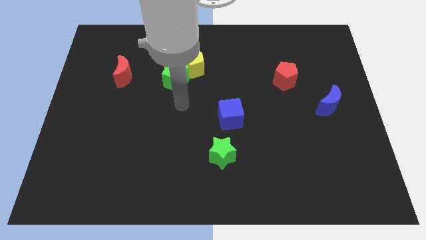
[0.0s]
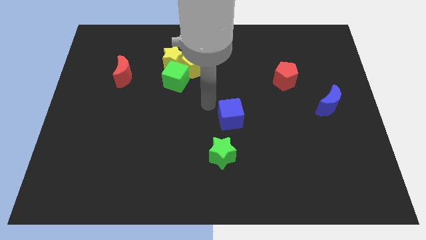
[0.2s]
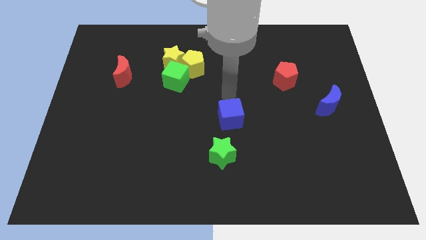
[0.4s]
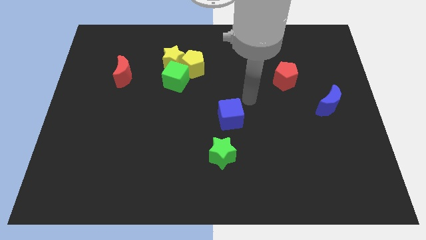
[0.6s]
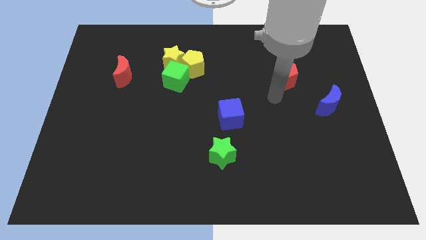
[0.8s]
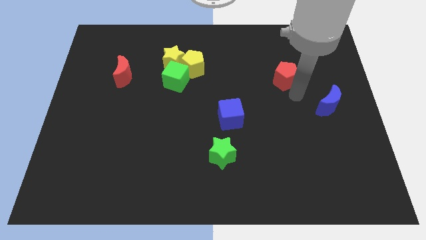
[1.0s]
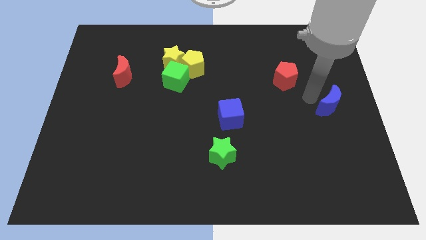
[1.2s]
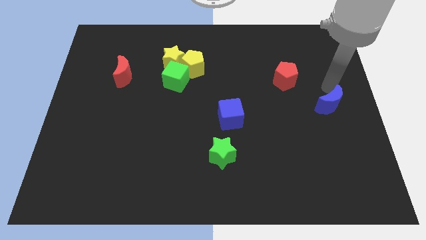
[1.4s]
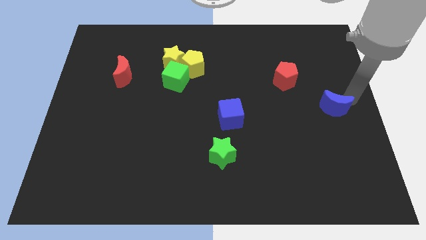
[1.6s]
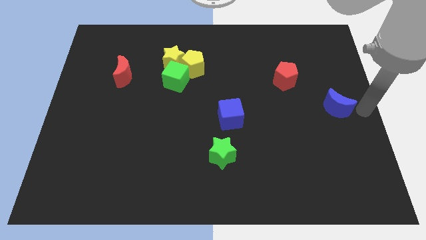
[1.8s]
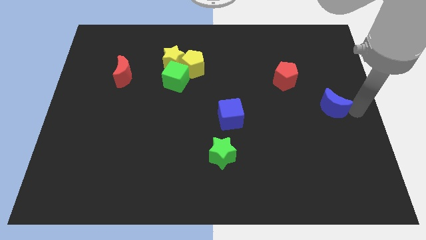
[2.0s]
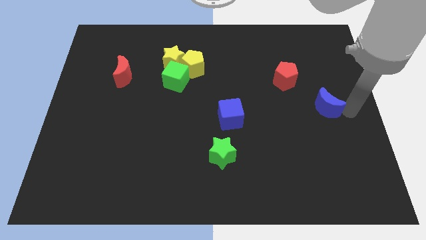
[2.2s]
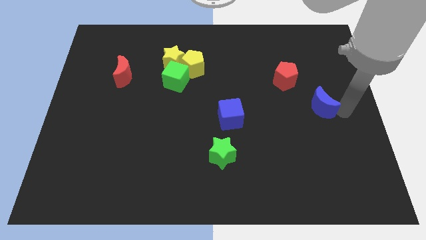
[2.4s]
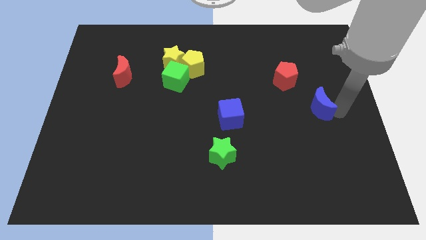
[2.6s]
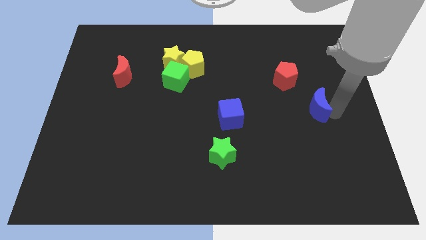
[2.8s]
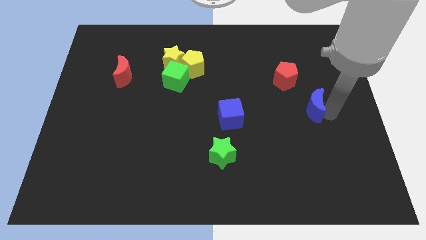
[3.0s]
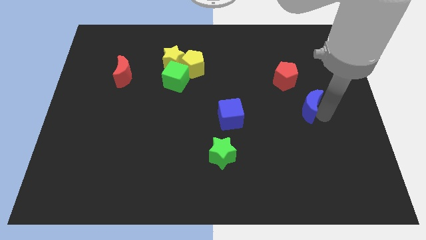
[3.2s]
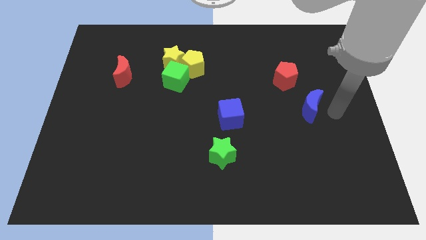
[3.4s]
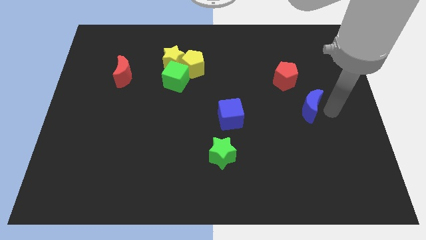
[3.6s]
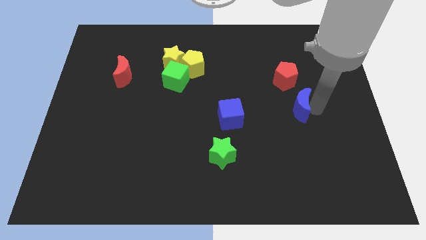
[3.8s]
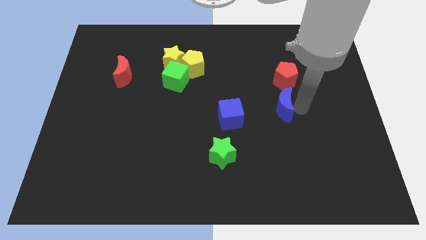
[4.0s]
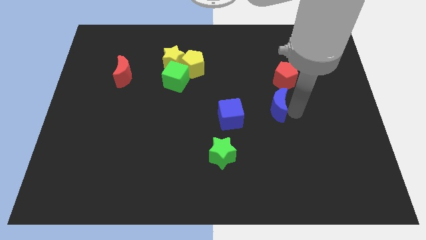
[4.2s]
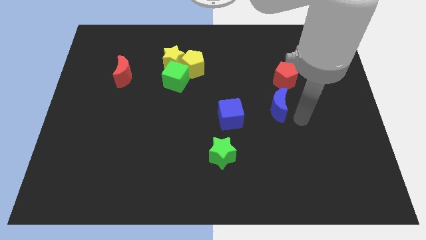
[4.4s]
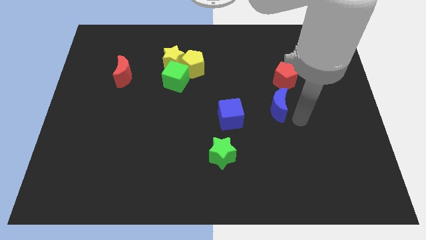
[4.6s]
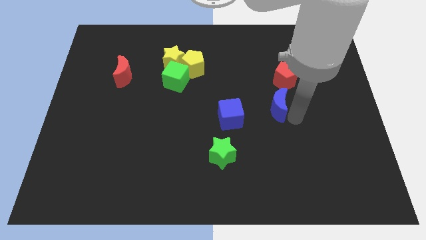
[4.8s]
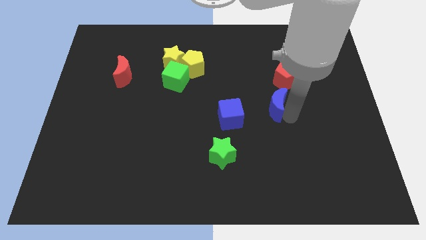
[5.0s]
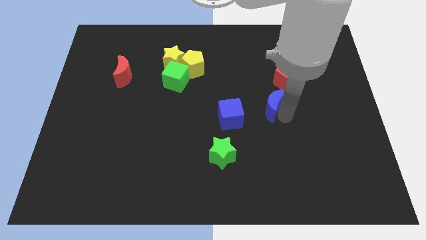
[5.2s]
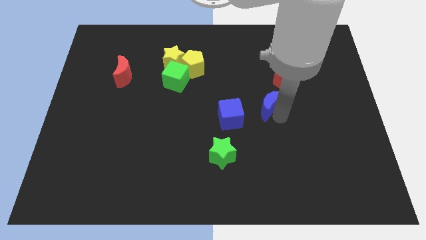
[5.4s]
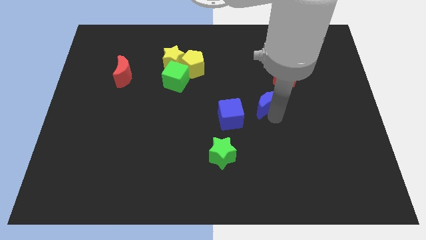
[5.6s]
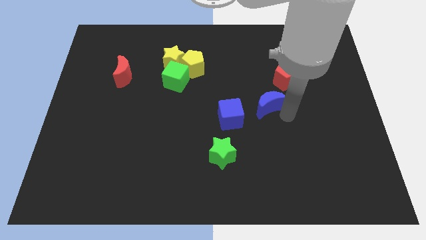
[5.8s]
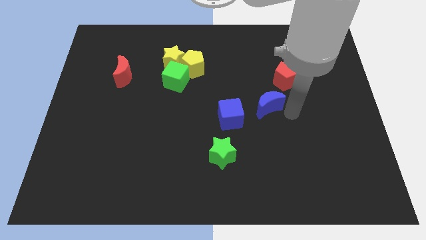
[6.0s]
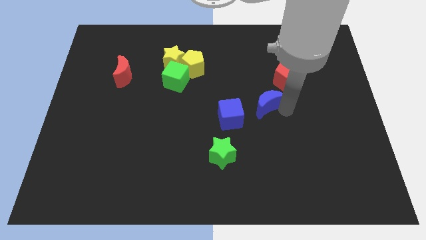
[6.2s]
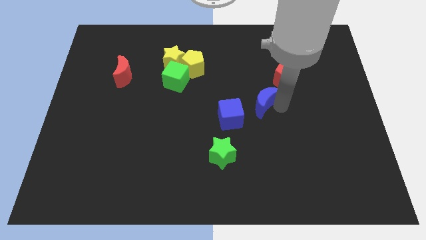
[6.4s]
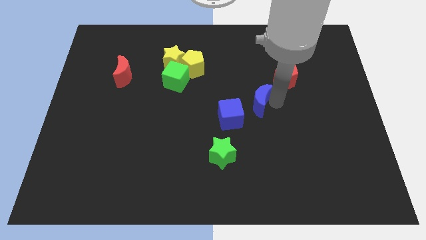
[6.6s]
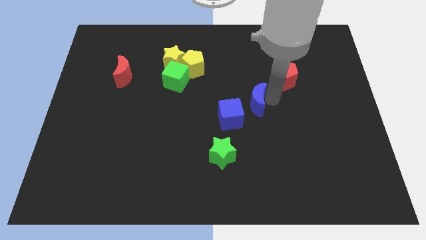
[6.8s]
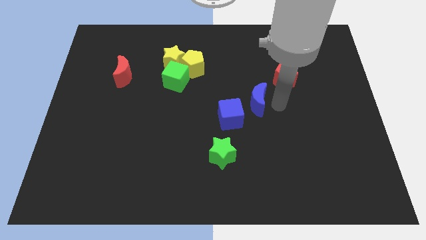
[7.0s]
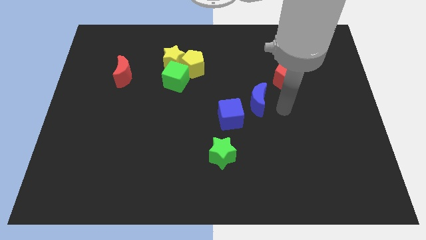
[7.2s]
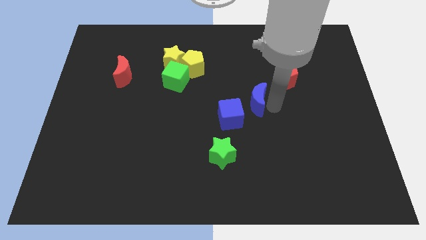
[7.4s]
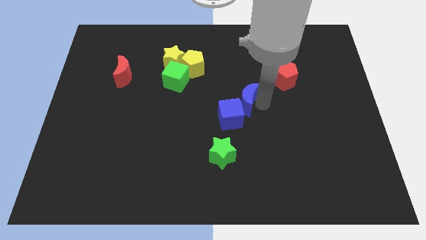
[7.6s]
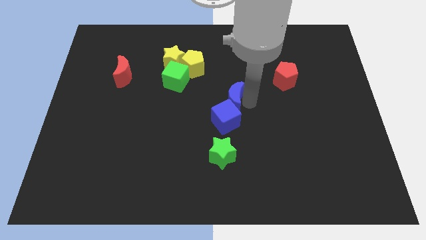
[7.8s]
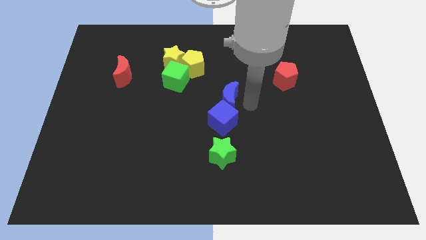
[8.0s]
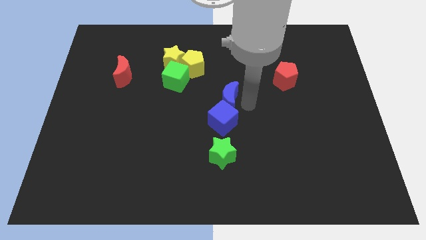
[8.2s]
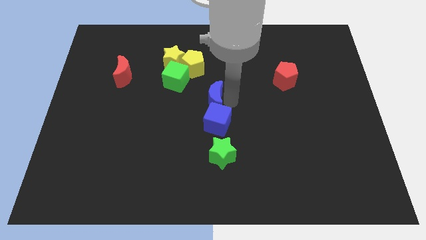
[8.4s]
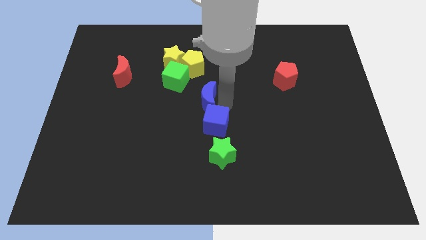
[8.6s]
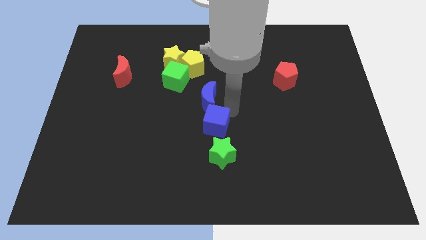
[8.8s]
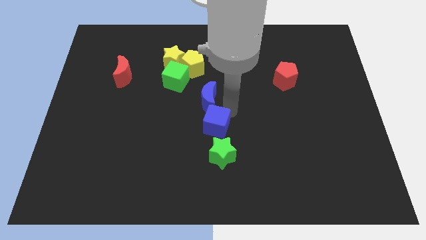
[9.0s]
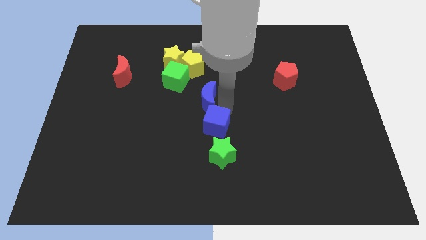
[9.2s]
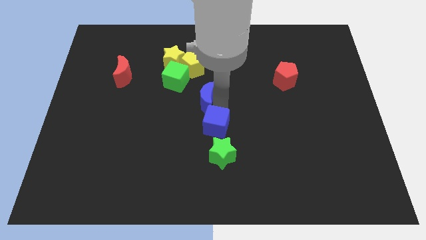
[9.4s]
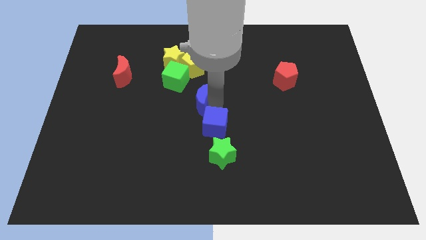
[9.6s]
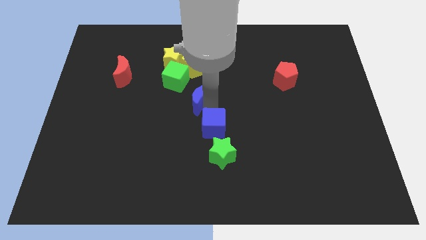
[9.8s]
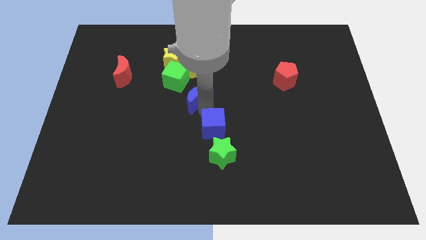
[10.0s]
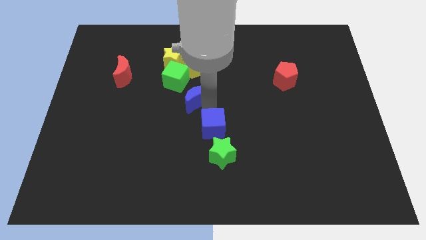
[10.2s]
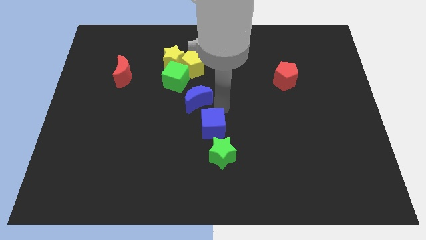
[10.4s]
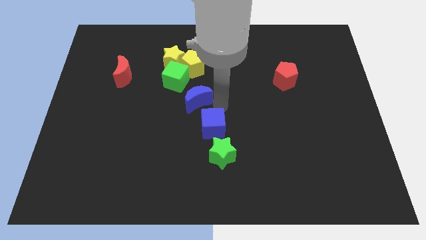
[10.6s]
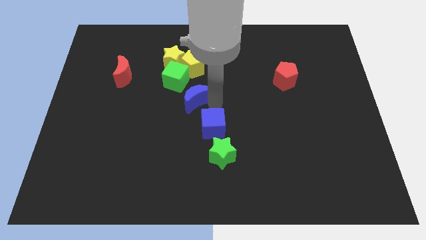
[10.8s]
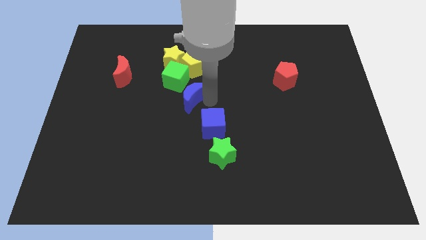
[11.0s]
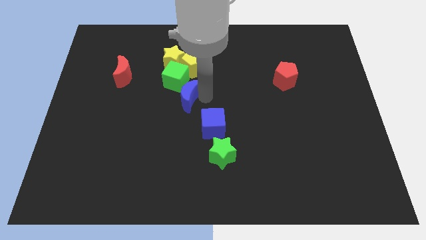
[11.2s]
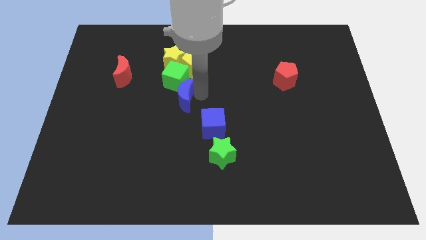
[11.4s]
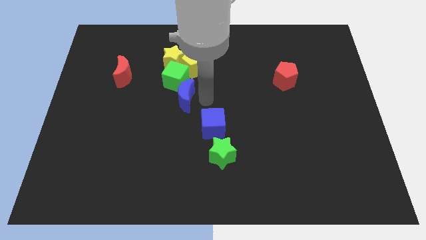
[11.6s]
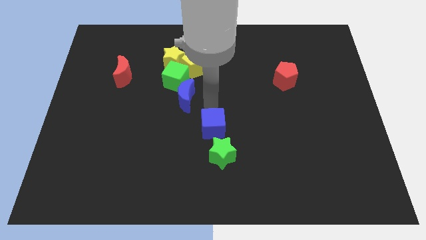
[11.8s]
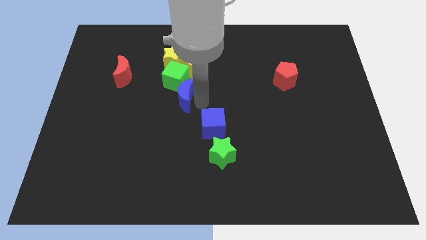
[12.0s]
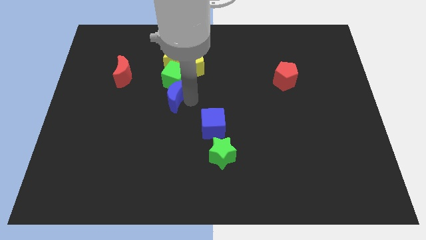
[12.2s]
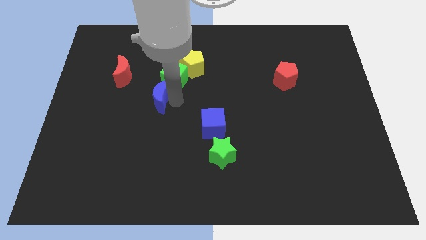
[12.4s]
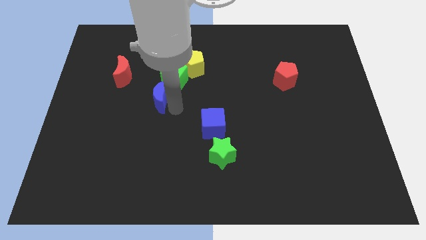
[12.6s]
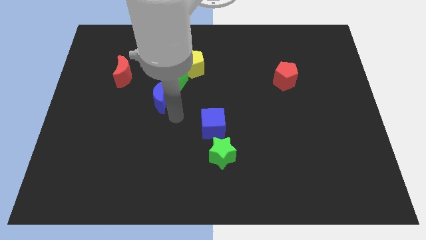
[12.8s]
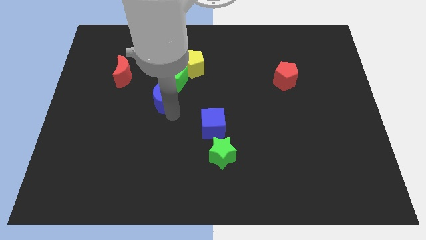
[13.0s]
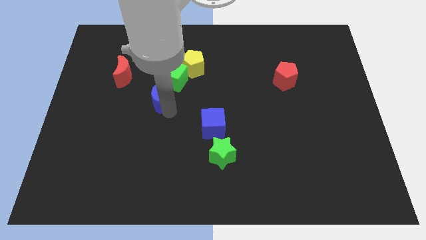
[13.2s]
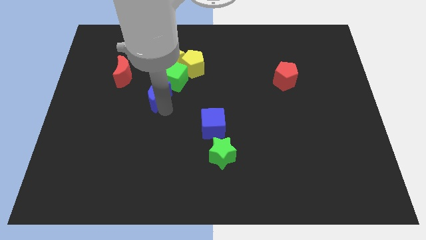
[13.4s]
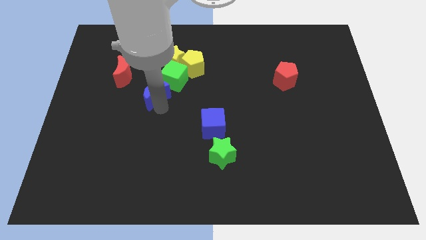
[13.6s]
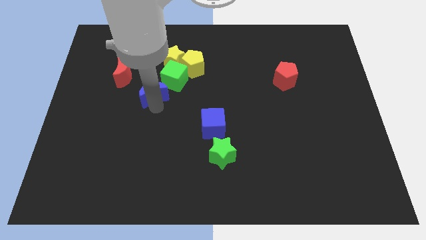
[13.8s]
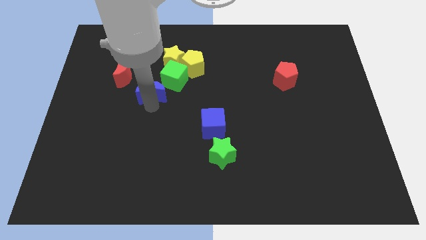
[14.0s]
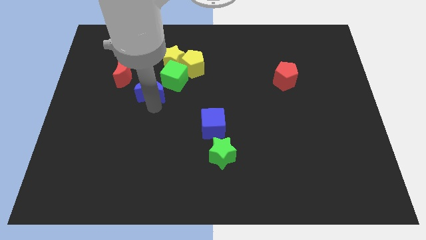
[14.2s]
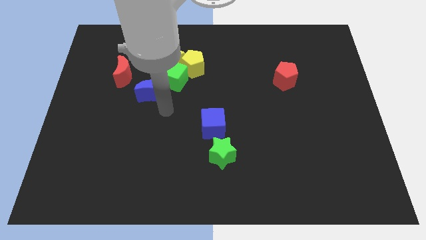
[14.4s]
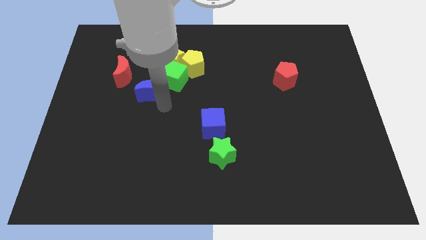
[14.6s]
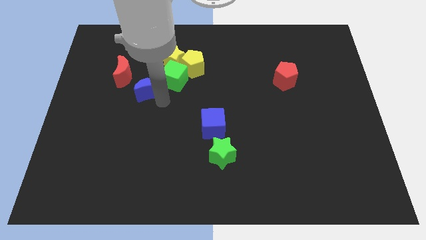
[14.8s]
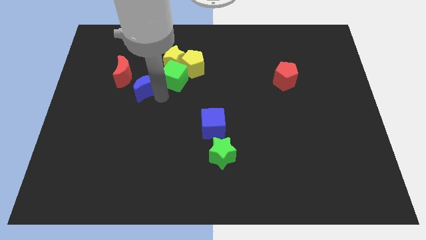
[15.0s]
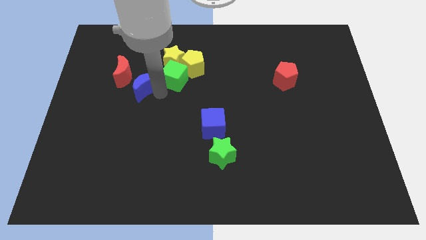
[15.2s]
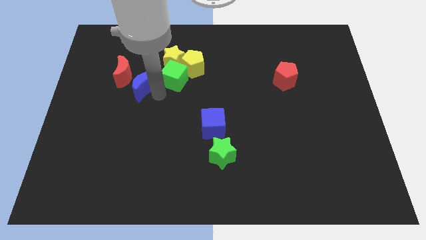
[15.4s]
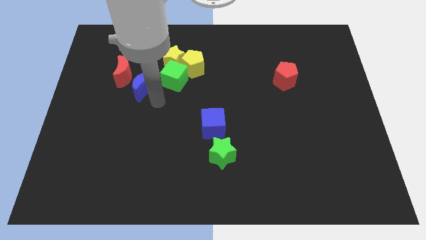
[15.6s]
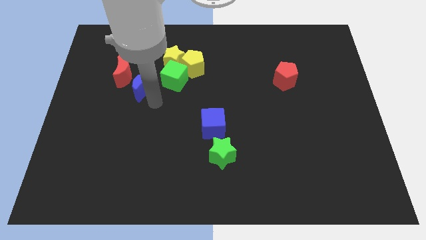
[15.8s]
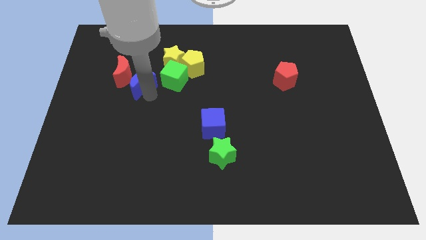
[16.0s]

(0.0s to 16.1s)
move the blue moon to the red moon

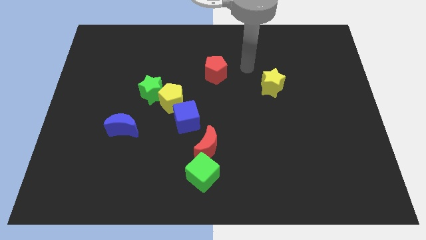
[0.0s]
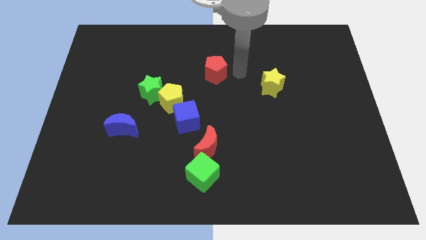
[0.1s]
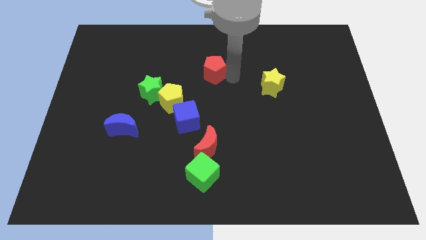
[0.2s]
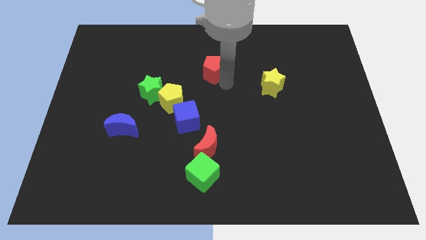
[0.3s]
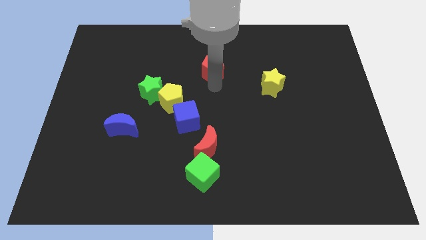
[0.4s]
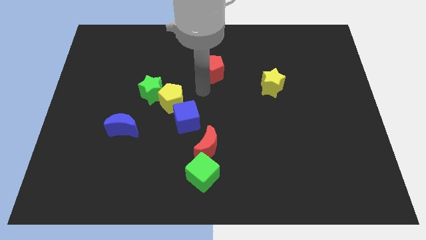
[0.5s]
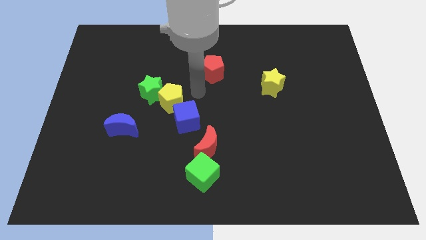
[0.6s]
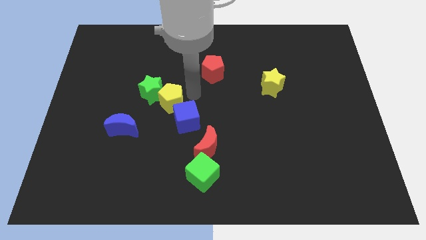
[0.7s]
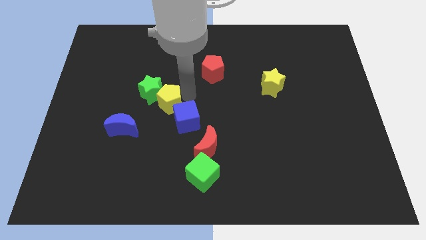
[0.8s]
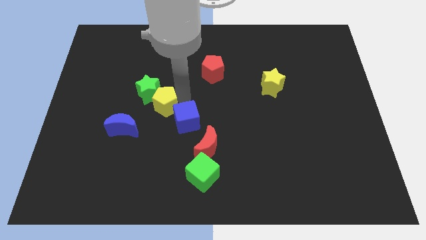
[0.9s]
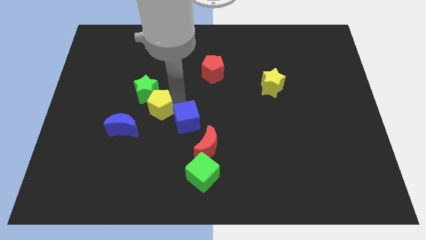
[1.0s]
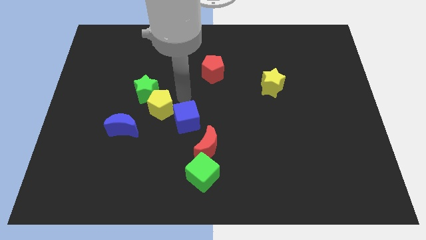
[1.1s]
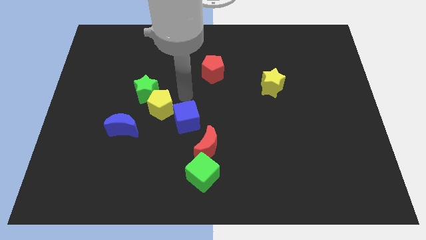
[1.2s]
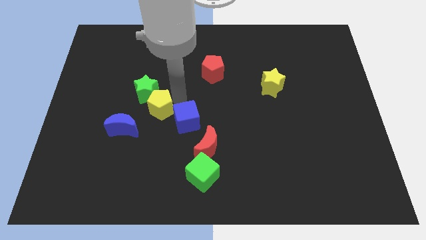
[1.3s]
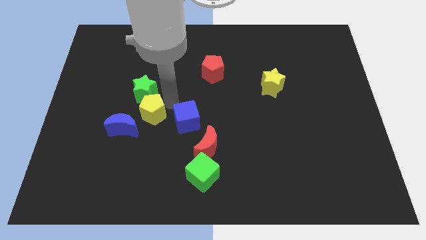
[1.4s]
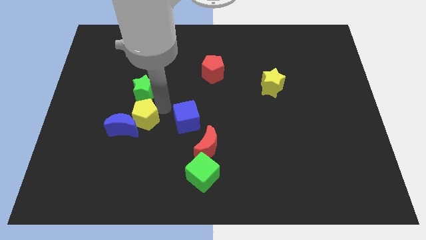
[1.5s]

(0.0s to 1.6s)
put the yellow pentagon next to the blue moon
